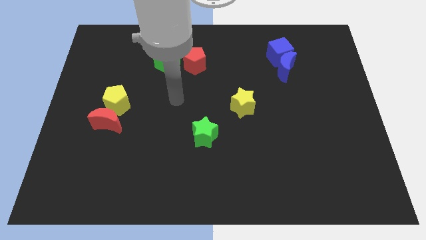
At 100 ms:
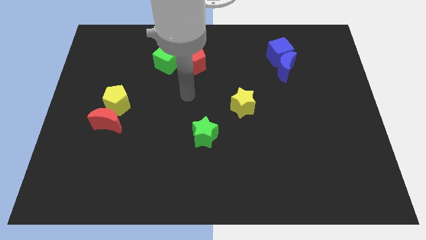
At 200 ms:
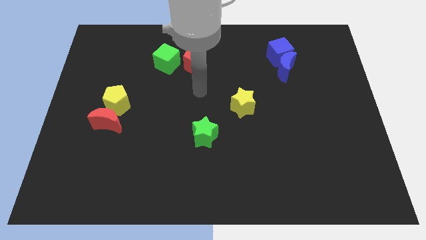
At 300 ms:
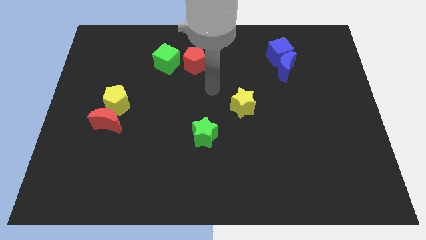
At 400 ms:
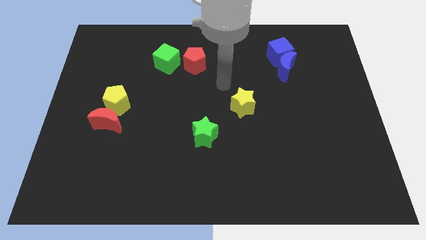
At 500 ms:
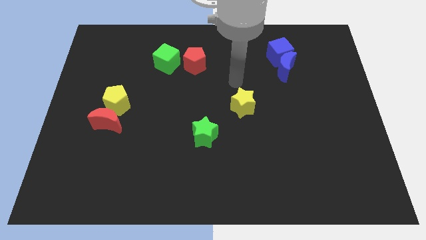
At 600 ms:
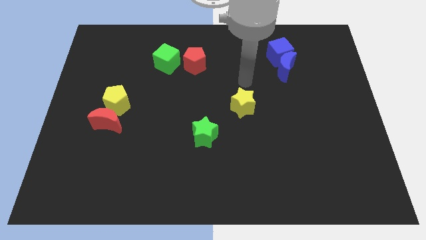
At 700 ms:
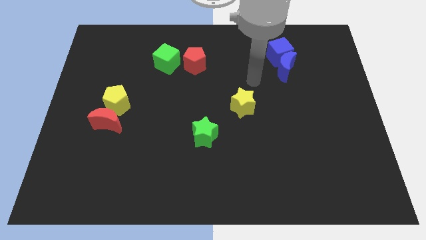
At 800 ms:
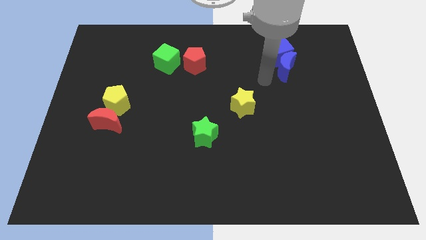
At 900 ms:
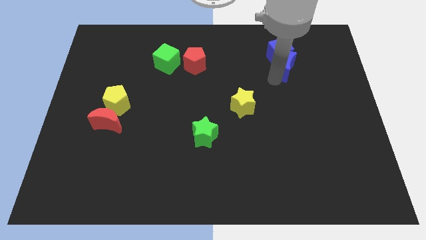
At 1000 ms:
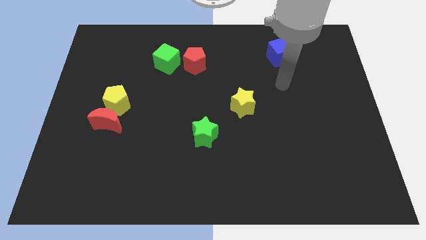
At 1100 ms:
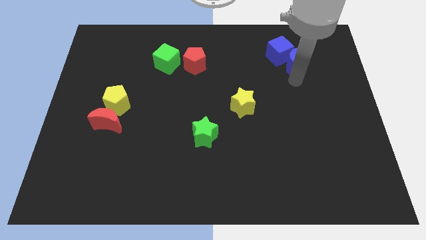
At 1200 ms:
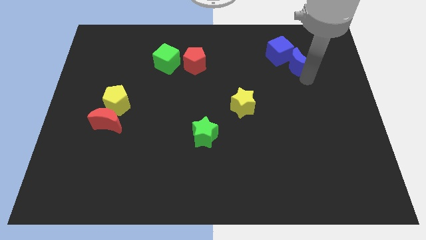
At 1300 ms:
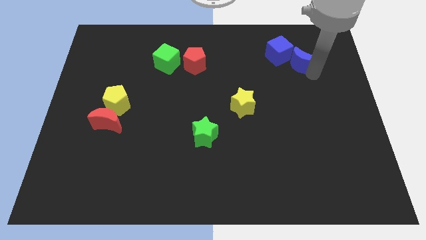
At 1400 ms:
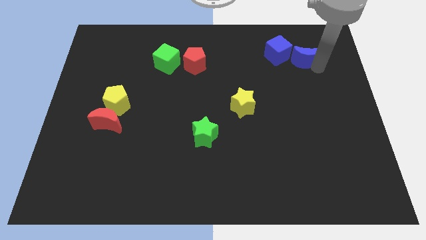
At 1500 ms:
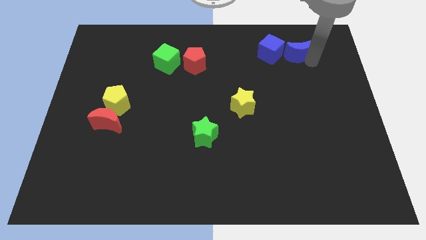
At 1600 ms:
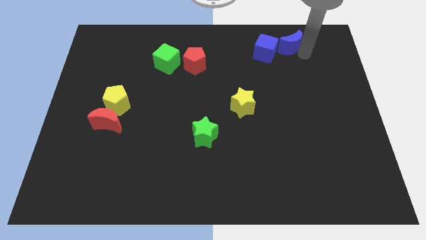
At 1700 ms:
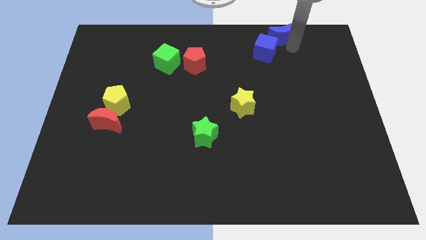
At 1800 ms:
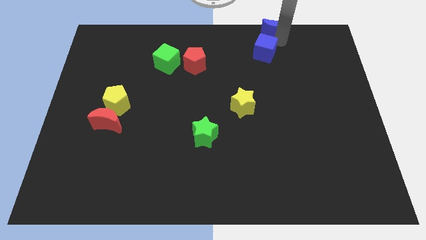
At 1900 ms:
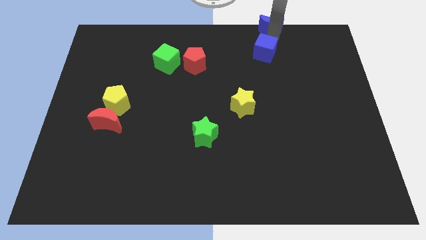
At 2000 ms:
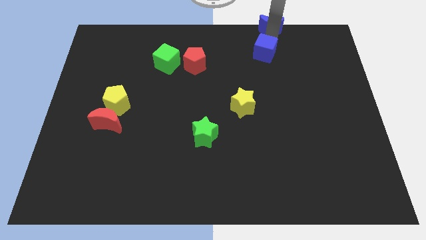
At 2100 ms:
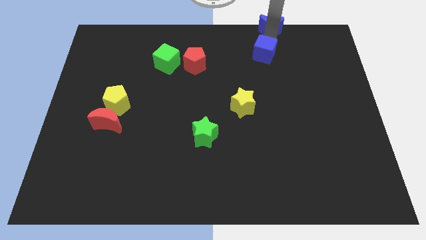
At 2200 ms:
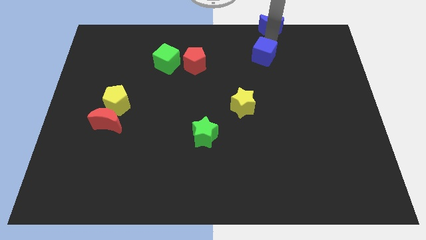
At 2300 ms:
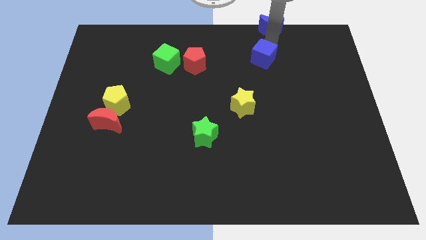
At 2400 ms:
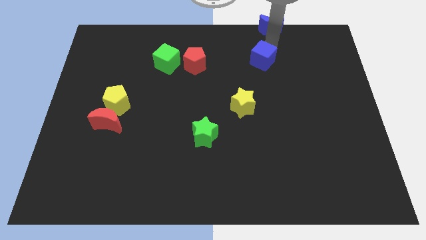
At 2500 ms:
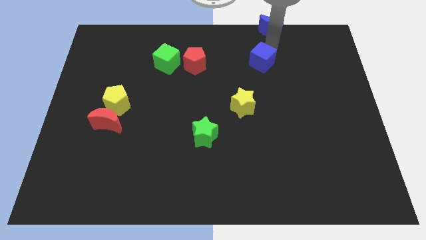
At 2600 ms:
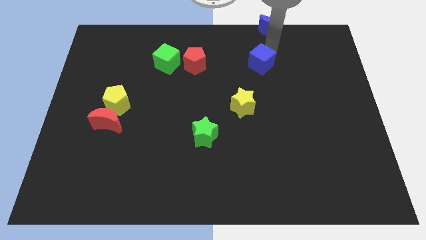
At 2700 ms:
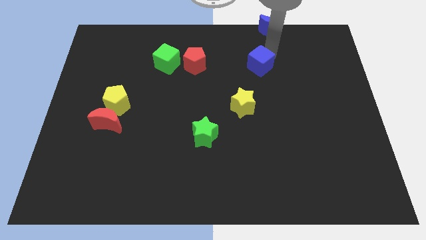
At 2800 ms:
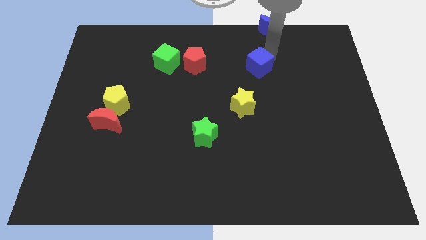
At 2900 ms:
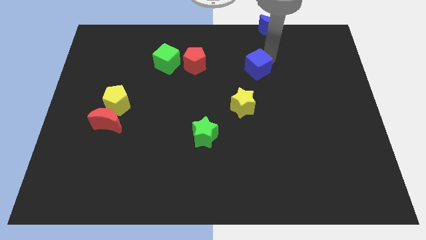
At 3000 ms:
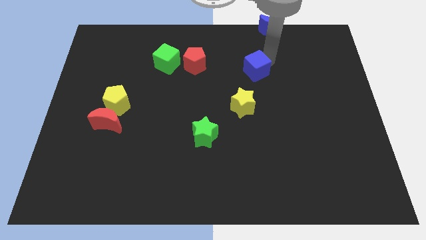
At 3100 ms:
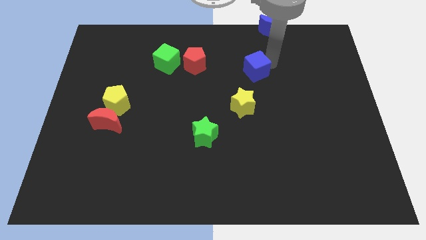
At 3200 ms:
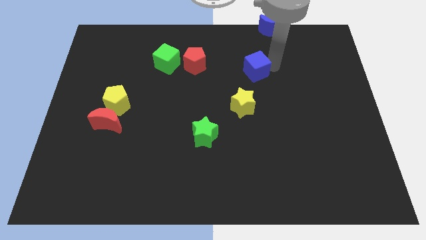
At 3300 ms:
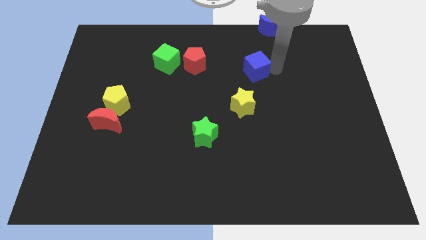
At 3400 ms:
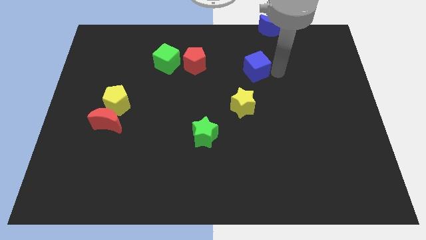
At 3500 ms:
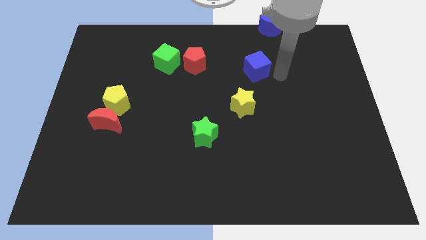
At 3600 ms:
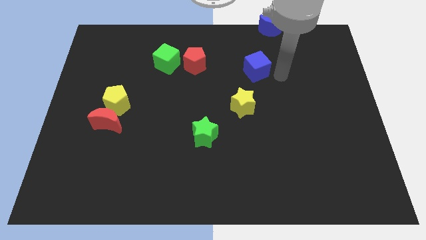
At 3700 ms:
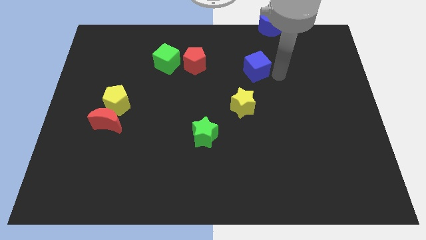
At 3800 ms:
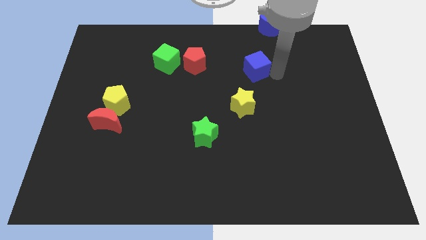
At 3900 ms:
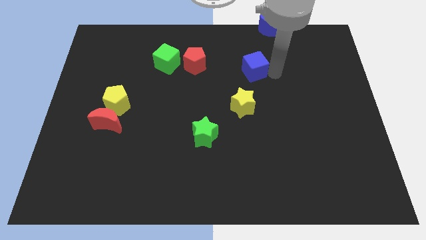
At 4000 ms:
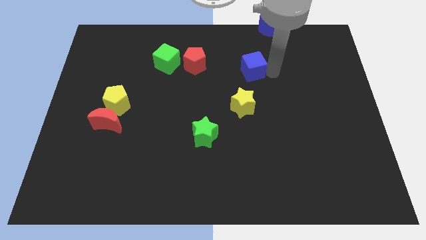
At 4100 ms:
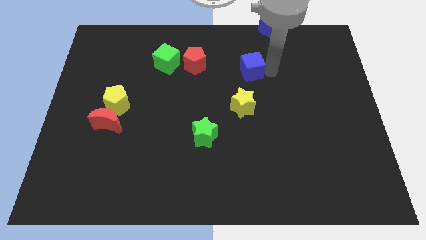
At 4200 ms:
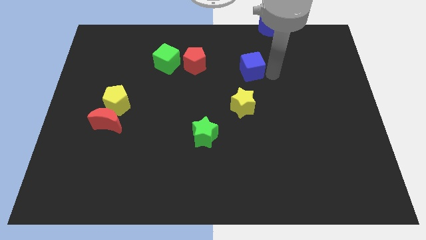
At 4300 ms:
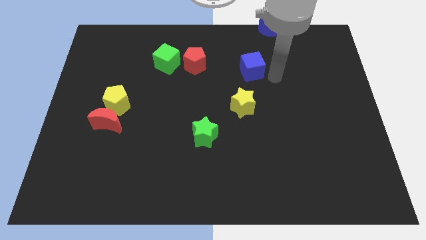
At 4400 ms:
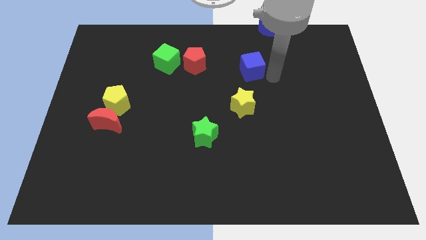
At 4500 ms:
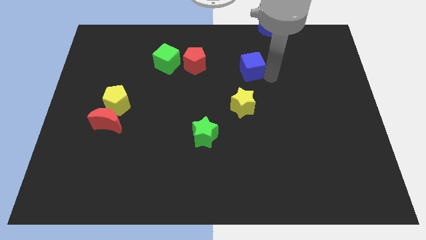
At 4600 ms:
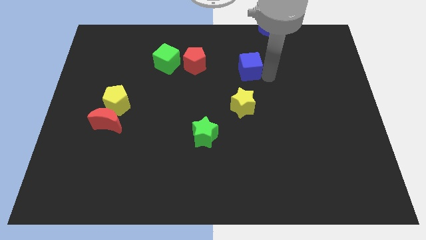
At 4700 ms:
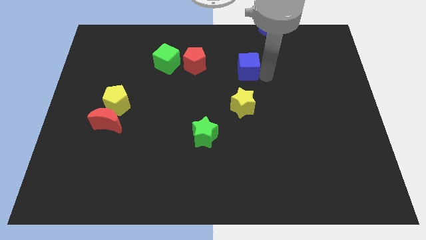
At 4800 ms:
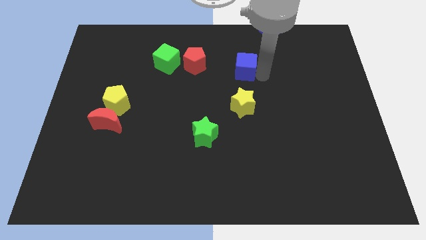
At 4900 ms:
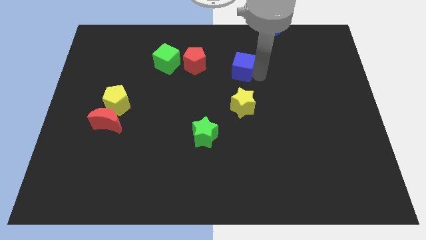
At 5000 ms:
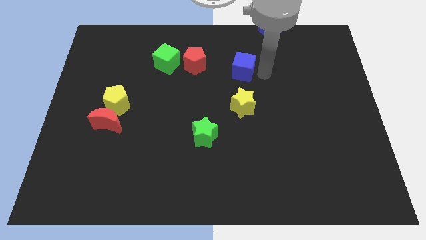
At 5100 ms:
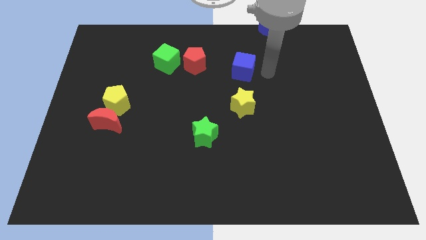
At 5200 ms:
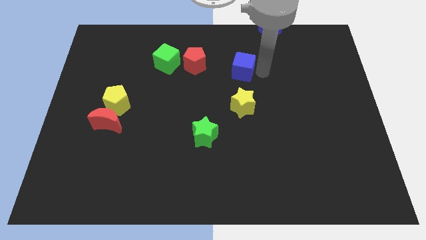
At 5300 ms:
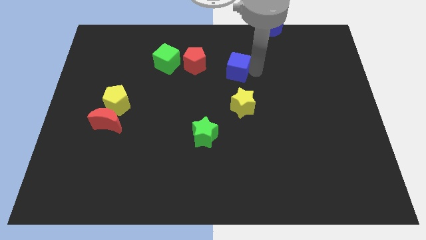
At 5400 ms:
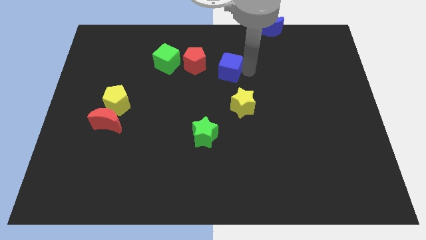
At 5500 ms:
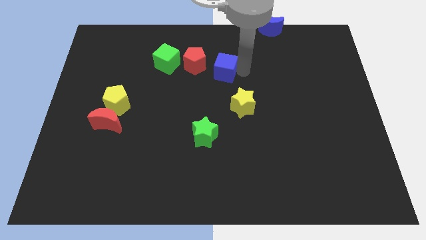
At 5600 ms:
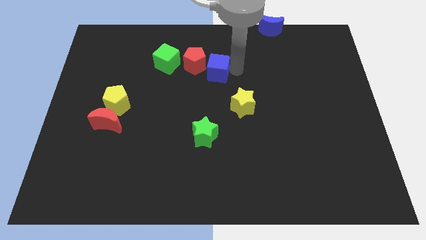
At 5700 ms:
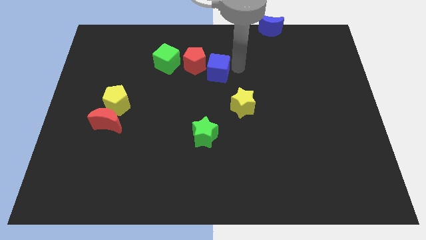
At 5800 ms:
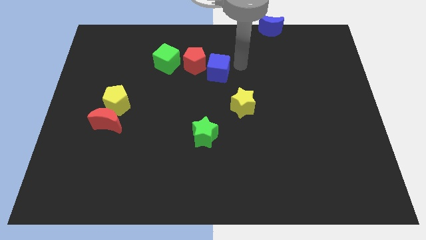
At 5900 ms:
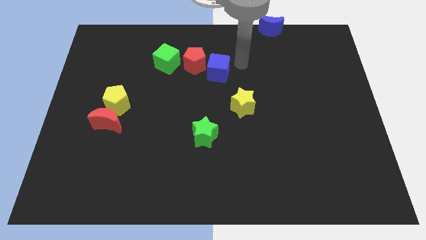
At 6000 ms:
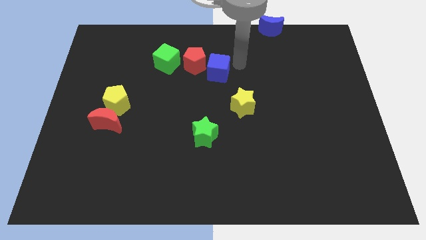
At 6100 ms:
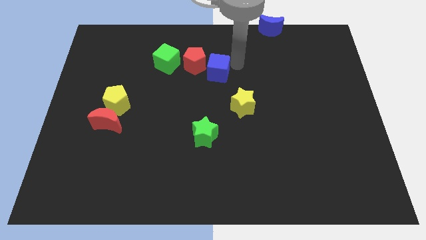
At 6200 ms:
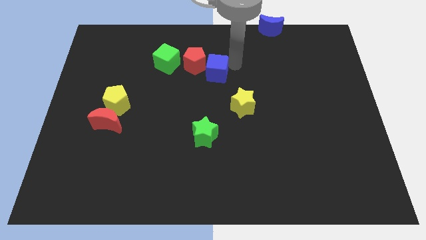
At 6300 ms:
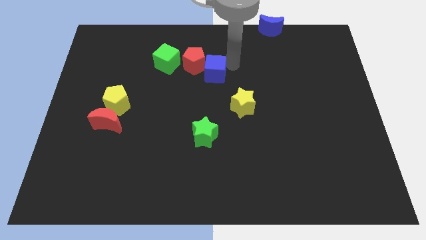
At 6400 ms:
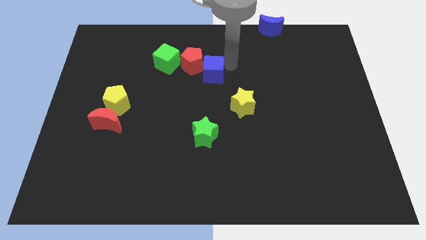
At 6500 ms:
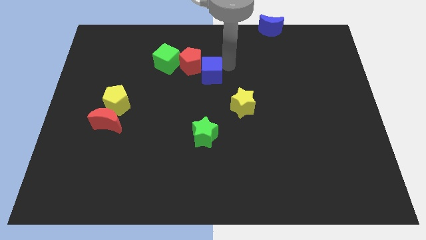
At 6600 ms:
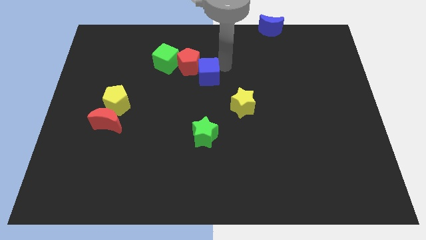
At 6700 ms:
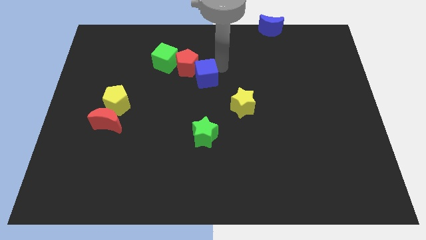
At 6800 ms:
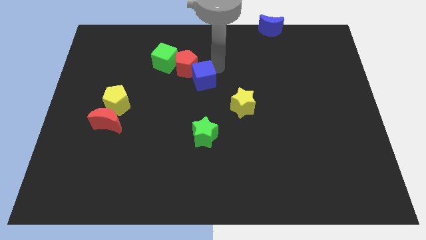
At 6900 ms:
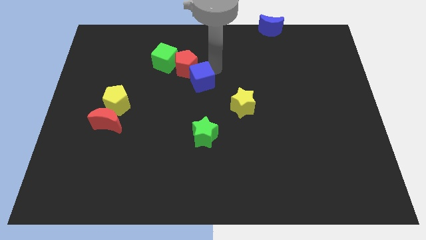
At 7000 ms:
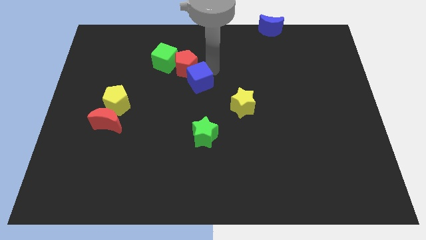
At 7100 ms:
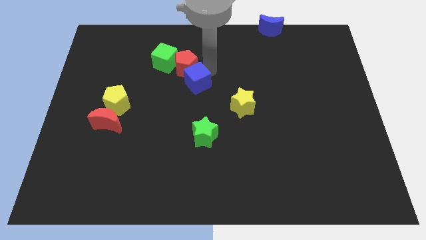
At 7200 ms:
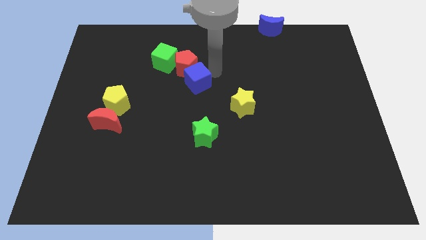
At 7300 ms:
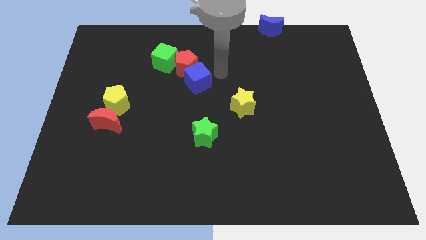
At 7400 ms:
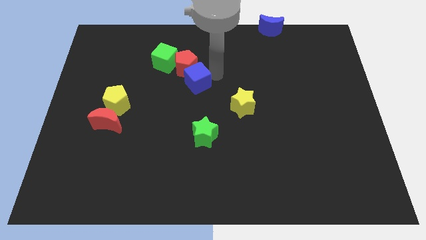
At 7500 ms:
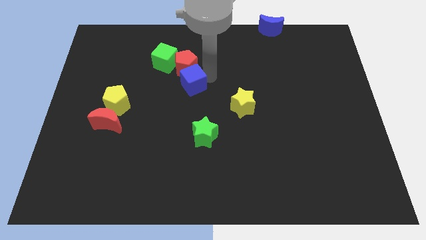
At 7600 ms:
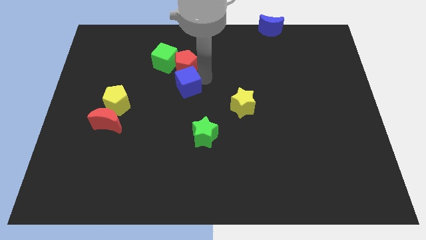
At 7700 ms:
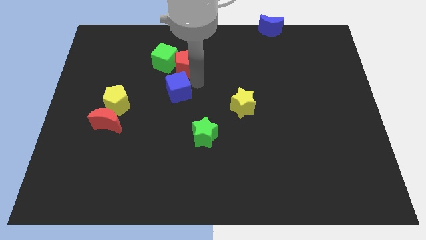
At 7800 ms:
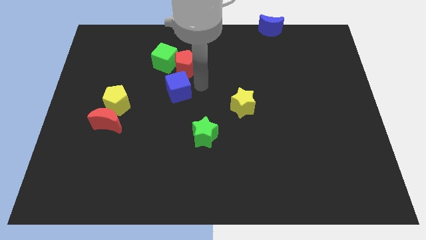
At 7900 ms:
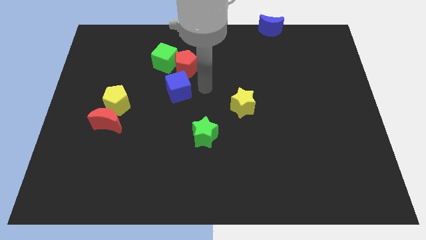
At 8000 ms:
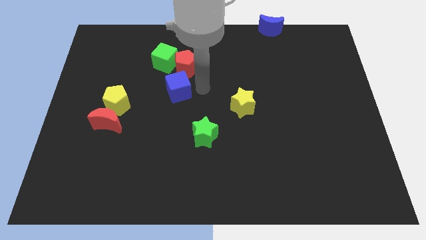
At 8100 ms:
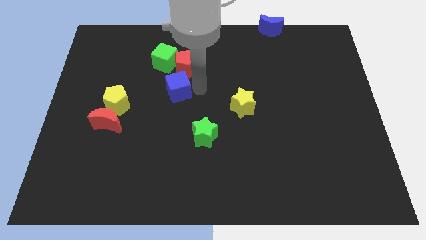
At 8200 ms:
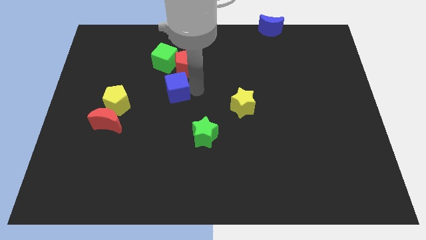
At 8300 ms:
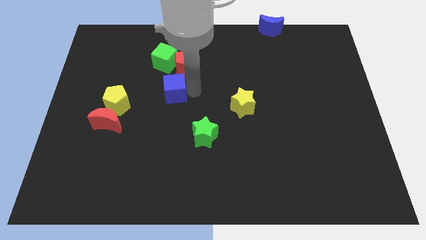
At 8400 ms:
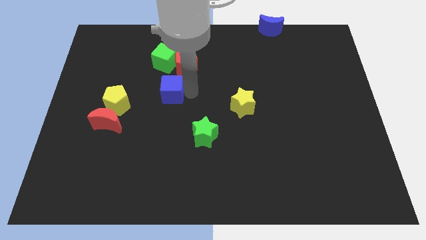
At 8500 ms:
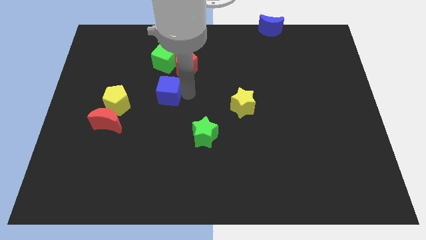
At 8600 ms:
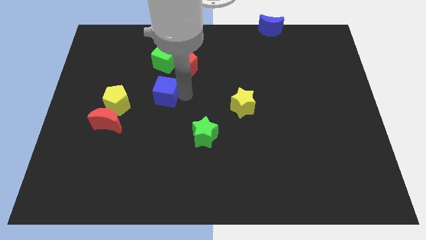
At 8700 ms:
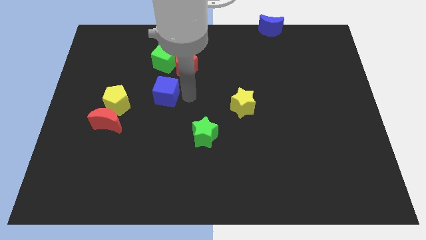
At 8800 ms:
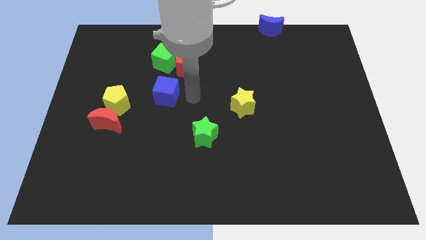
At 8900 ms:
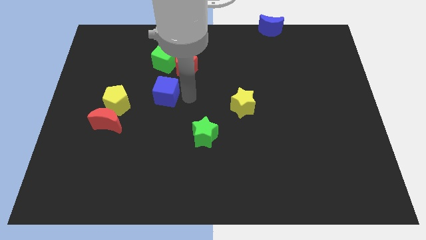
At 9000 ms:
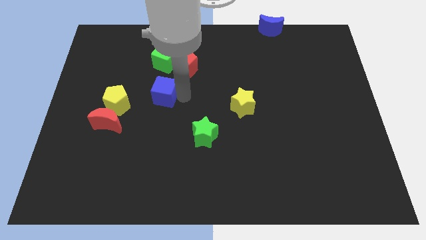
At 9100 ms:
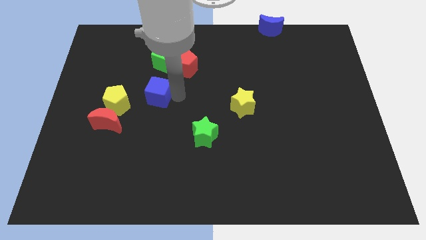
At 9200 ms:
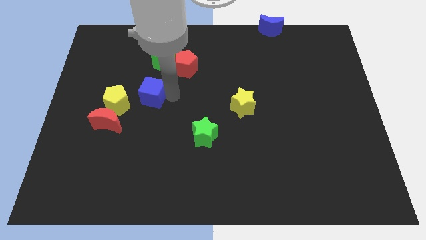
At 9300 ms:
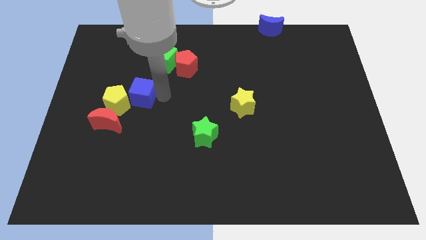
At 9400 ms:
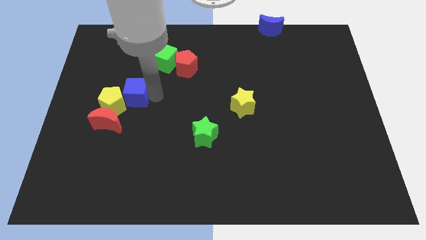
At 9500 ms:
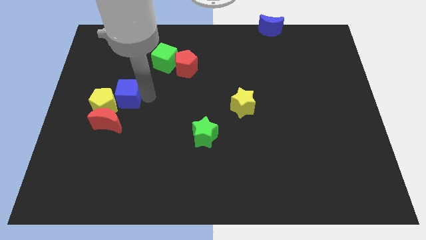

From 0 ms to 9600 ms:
move the blue cube to the top side of the red moon
